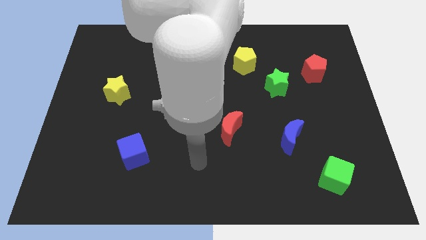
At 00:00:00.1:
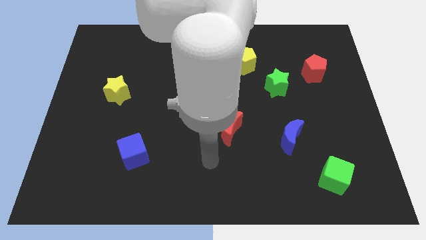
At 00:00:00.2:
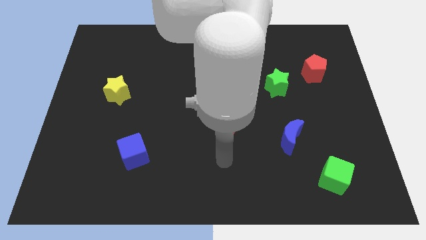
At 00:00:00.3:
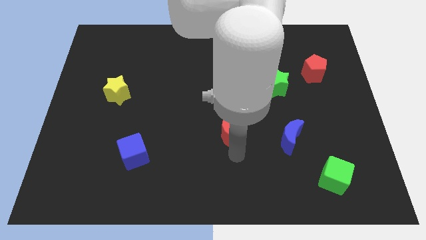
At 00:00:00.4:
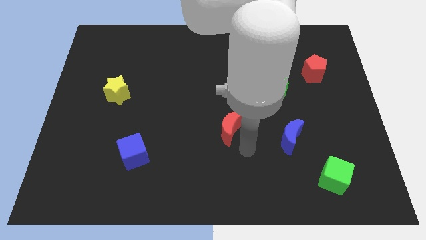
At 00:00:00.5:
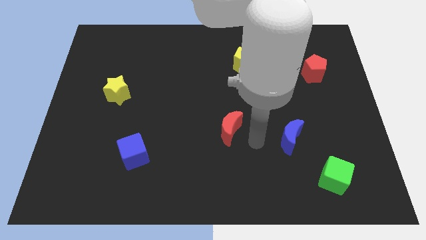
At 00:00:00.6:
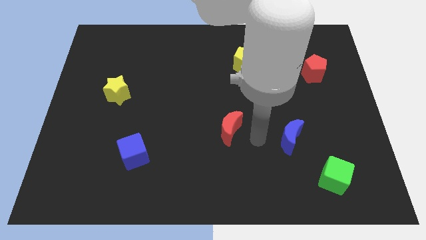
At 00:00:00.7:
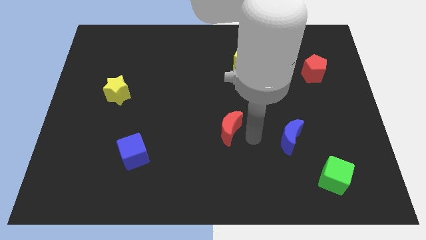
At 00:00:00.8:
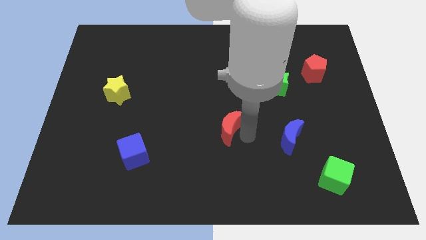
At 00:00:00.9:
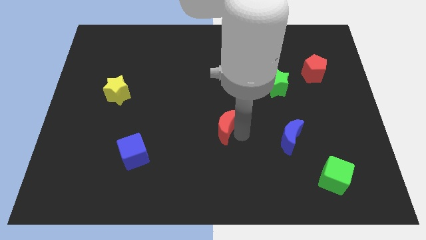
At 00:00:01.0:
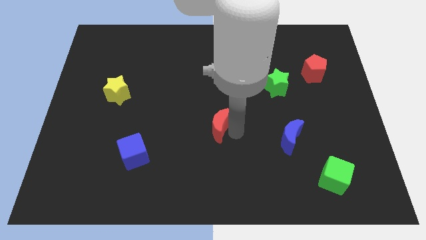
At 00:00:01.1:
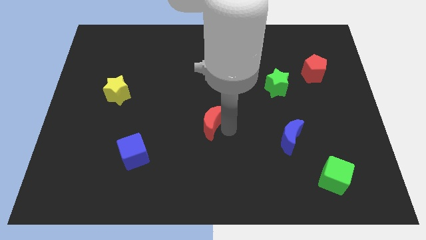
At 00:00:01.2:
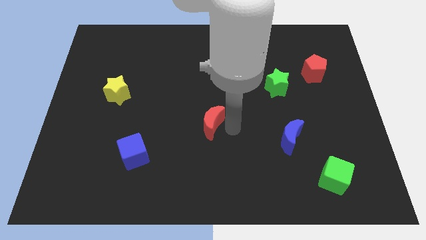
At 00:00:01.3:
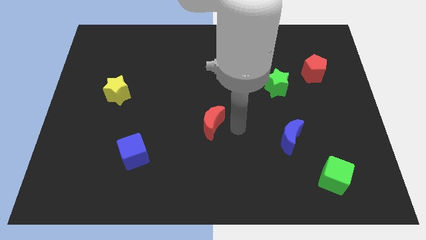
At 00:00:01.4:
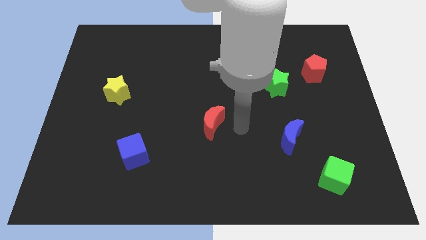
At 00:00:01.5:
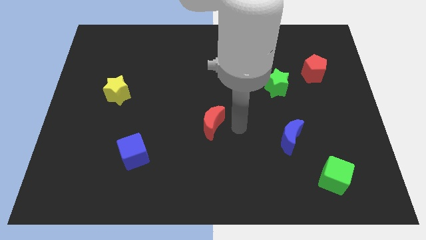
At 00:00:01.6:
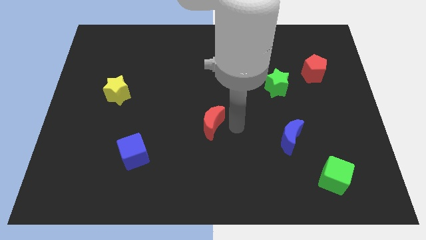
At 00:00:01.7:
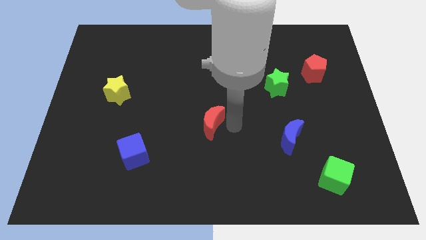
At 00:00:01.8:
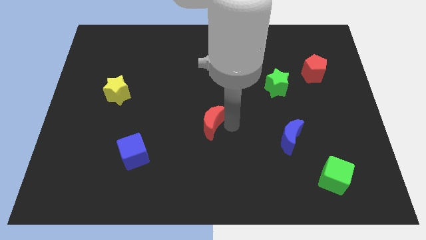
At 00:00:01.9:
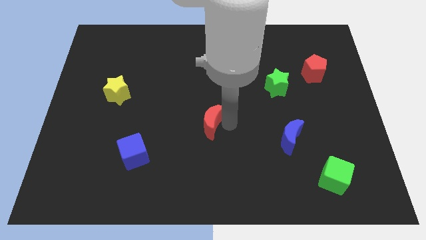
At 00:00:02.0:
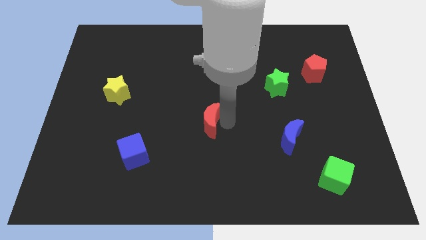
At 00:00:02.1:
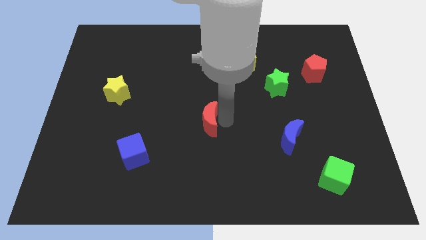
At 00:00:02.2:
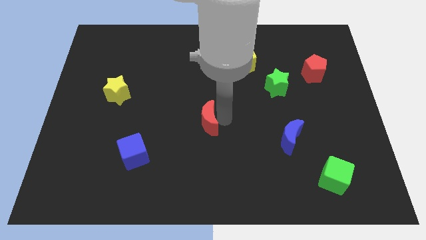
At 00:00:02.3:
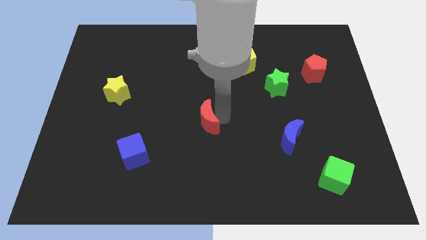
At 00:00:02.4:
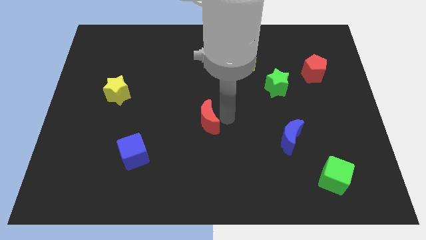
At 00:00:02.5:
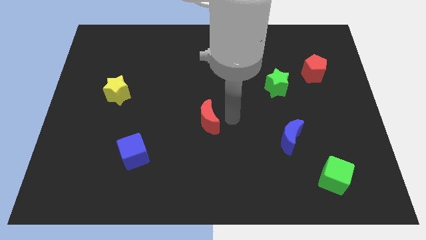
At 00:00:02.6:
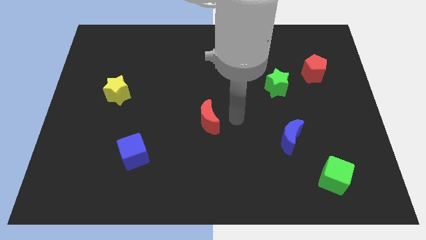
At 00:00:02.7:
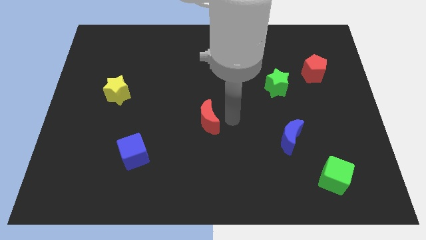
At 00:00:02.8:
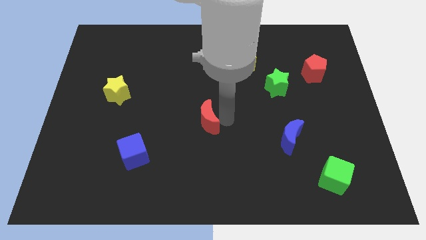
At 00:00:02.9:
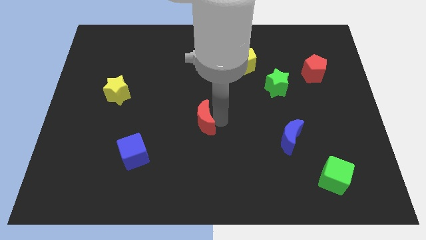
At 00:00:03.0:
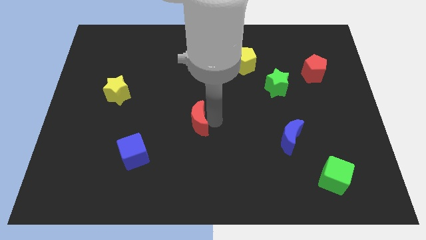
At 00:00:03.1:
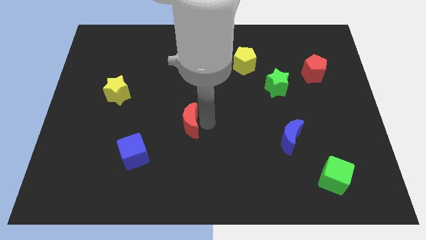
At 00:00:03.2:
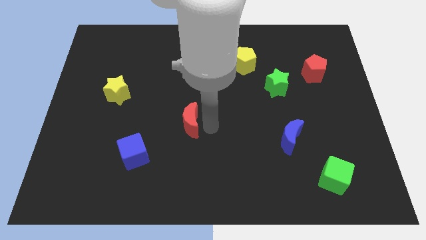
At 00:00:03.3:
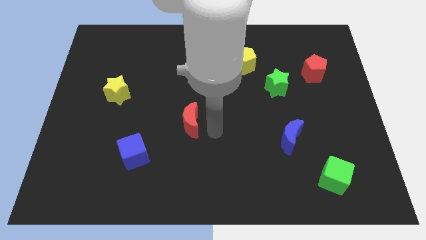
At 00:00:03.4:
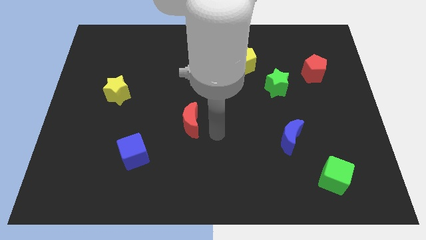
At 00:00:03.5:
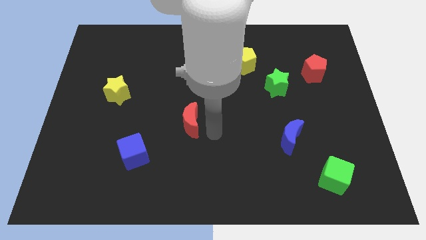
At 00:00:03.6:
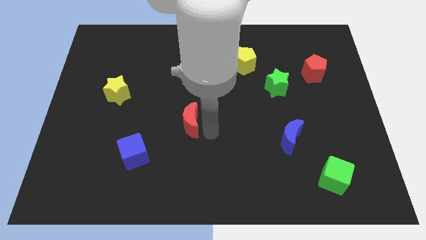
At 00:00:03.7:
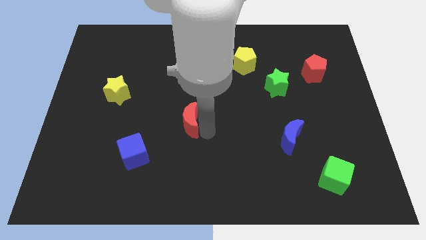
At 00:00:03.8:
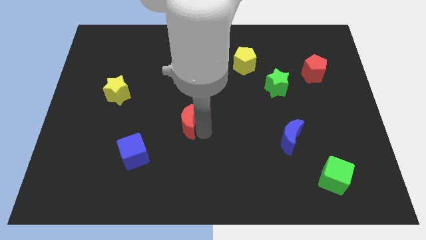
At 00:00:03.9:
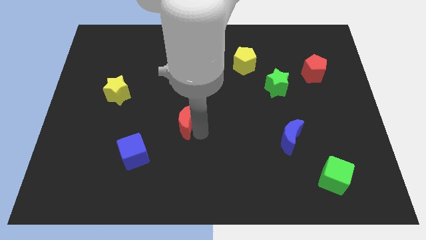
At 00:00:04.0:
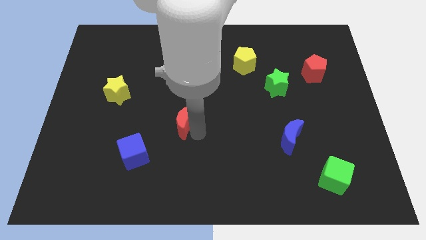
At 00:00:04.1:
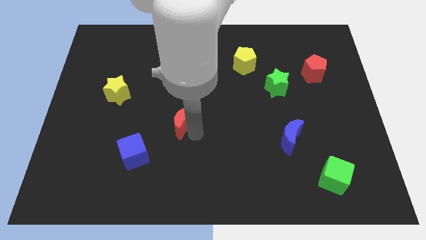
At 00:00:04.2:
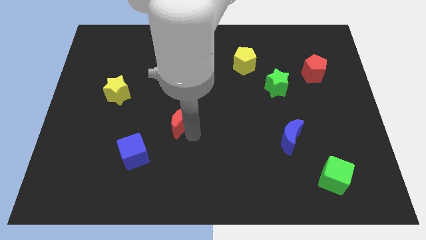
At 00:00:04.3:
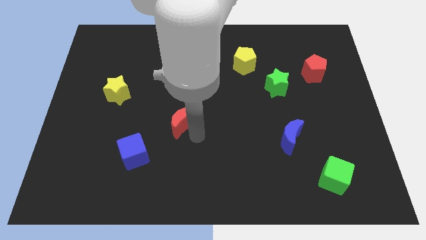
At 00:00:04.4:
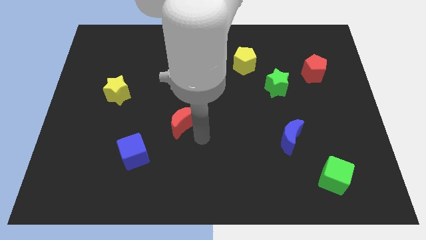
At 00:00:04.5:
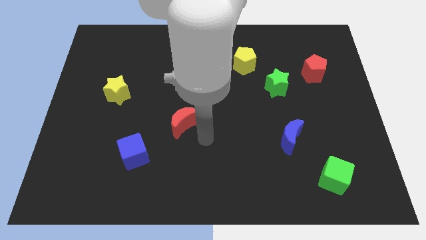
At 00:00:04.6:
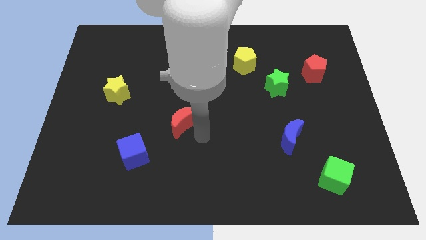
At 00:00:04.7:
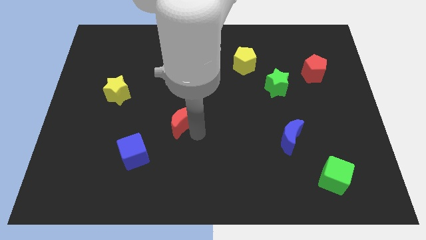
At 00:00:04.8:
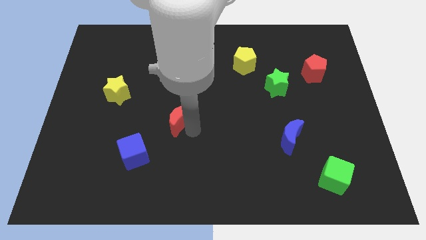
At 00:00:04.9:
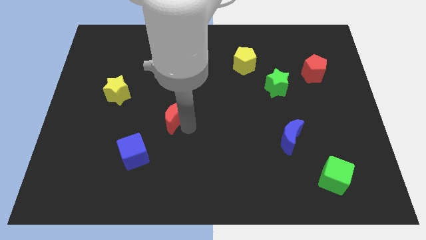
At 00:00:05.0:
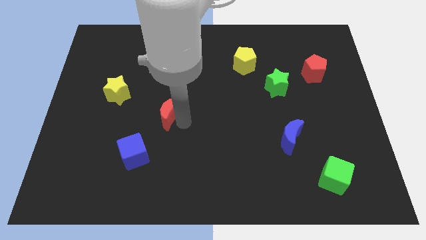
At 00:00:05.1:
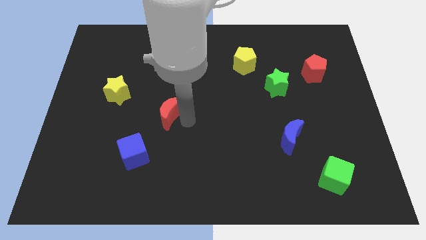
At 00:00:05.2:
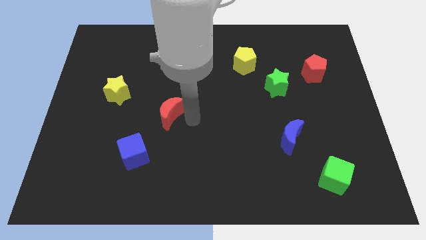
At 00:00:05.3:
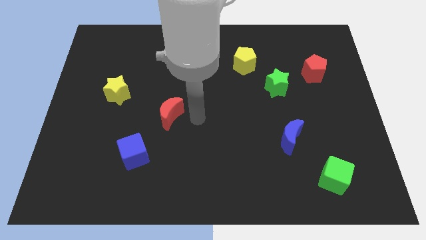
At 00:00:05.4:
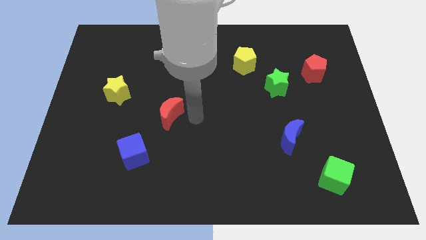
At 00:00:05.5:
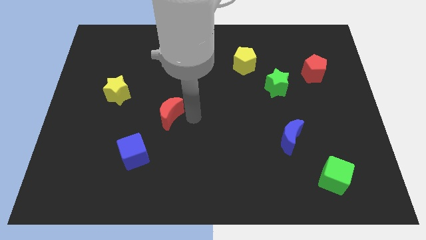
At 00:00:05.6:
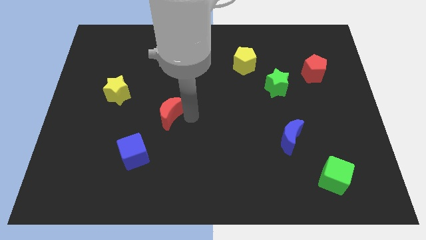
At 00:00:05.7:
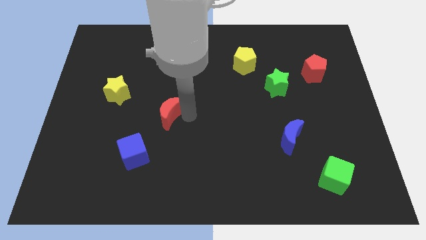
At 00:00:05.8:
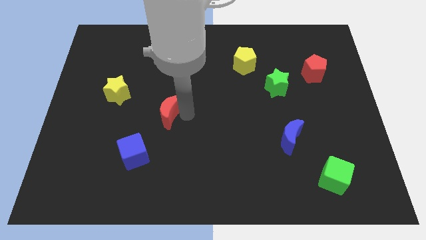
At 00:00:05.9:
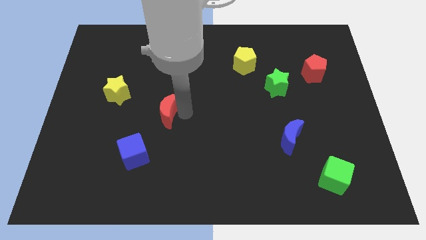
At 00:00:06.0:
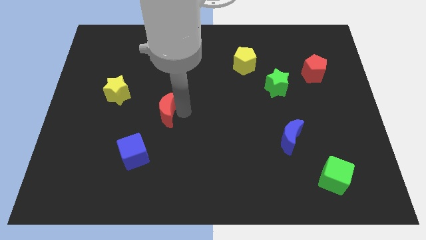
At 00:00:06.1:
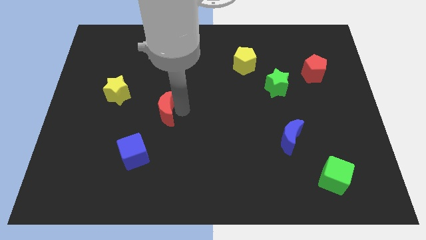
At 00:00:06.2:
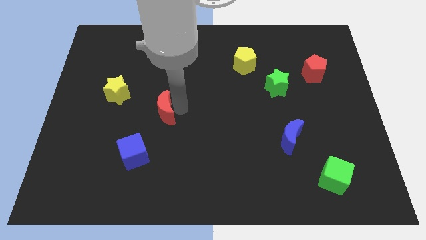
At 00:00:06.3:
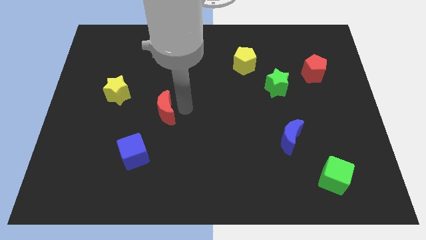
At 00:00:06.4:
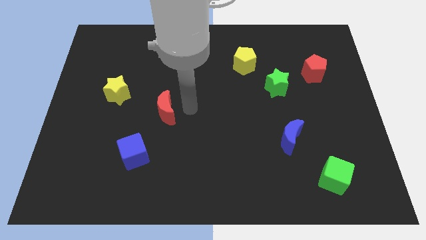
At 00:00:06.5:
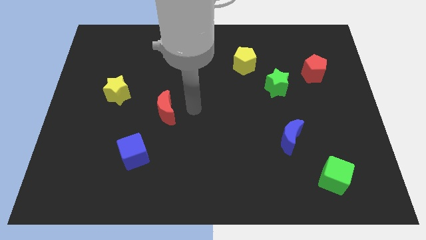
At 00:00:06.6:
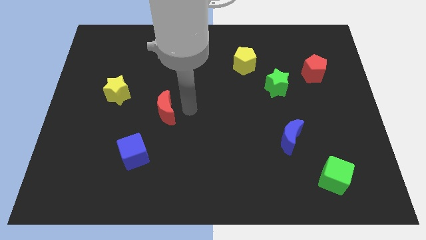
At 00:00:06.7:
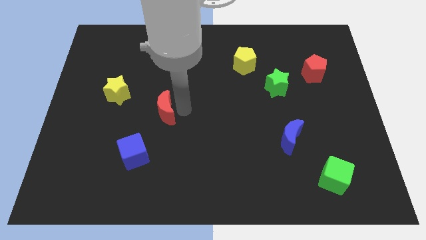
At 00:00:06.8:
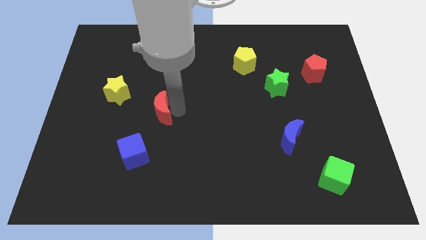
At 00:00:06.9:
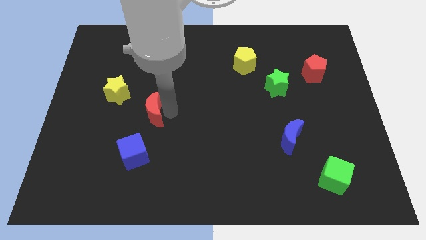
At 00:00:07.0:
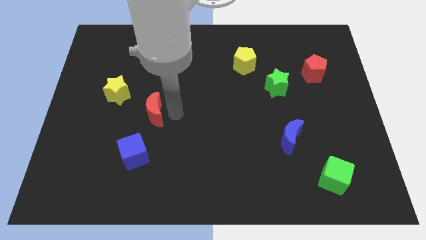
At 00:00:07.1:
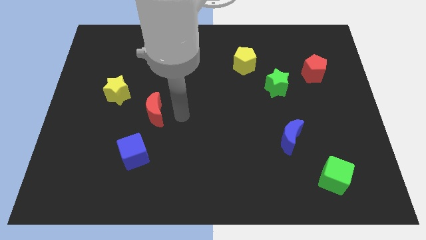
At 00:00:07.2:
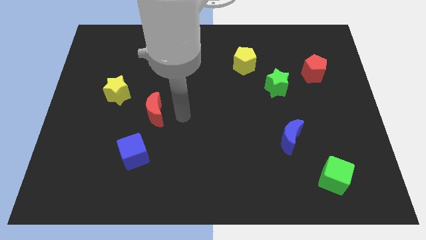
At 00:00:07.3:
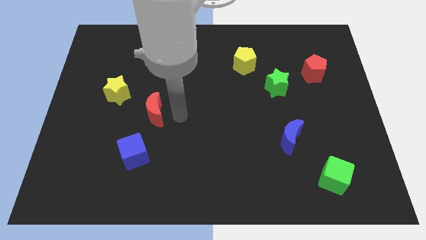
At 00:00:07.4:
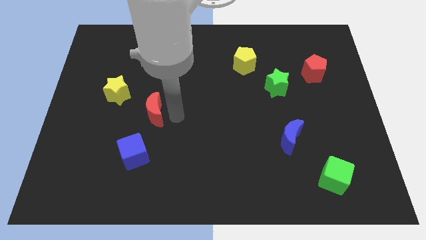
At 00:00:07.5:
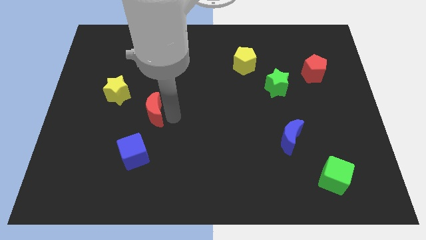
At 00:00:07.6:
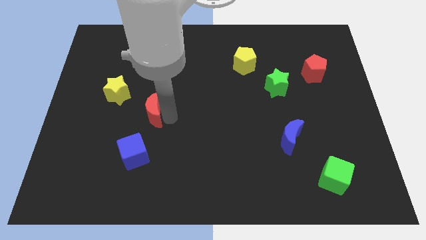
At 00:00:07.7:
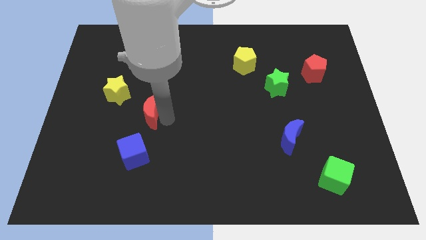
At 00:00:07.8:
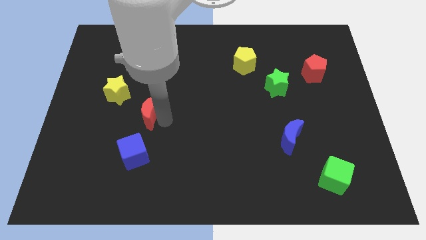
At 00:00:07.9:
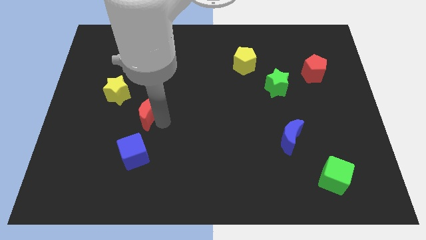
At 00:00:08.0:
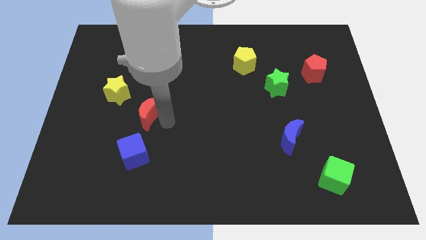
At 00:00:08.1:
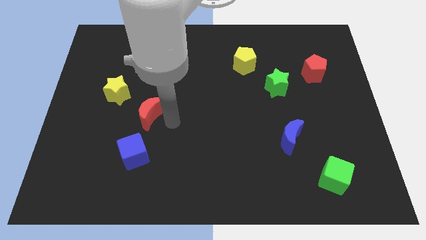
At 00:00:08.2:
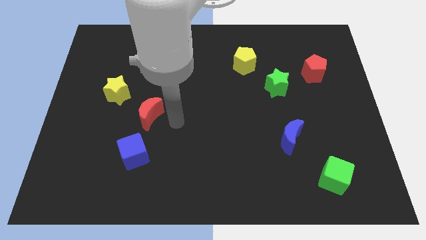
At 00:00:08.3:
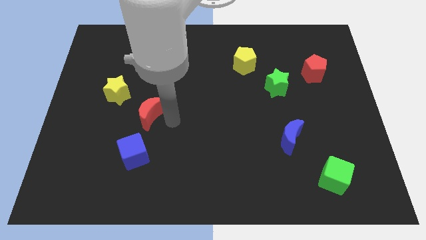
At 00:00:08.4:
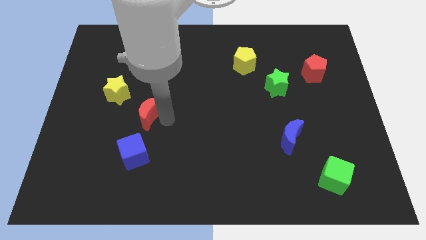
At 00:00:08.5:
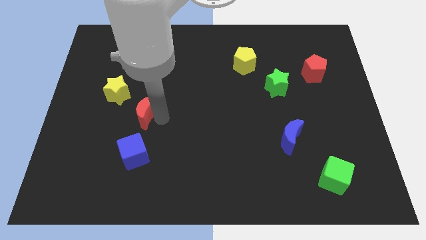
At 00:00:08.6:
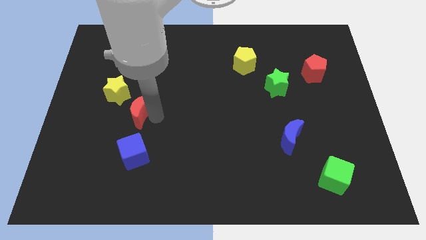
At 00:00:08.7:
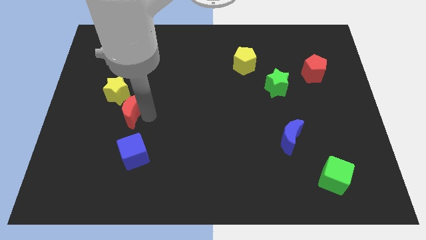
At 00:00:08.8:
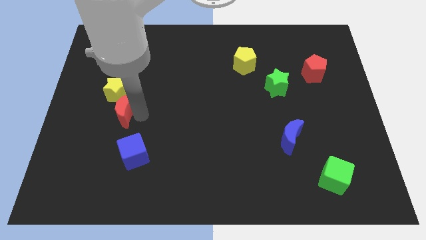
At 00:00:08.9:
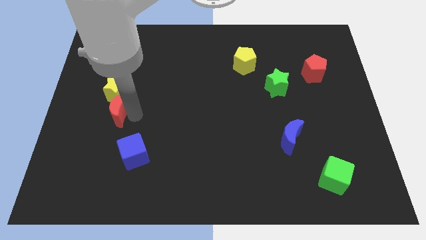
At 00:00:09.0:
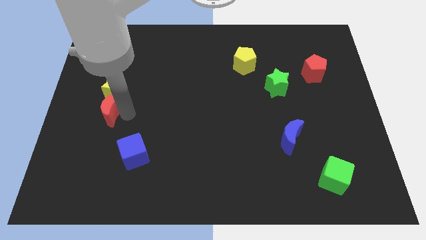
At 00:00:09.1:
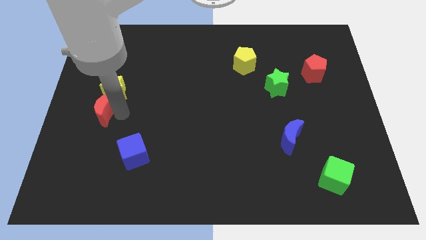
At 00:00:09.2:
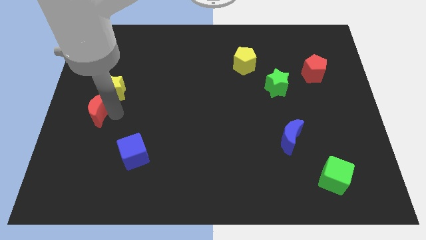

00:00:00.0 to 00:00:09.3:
put the red moon to the left side of the board
